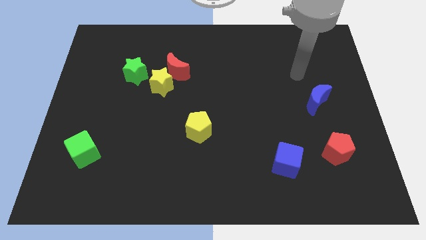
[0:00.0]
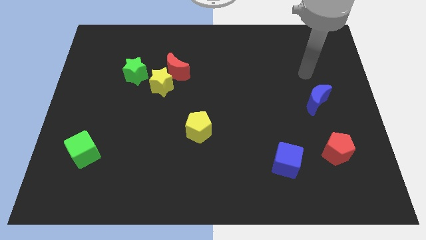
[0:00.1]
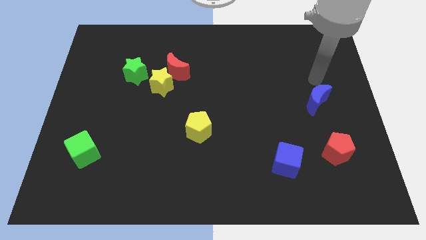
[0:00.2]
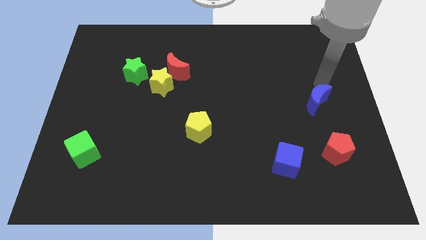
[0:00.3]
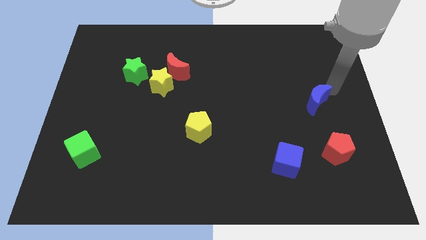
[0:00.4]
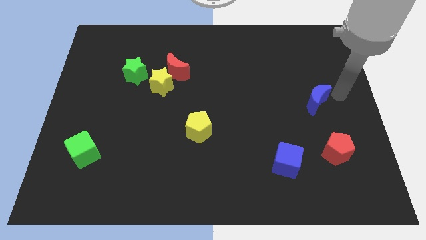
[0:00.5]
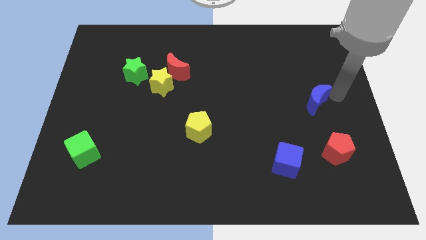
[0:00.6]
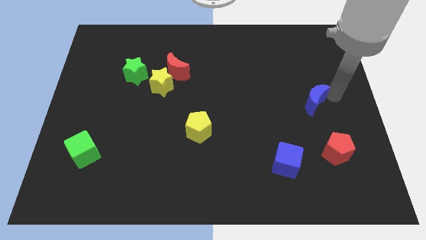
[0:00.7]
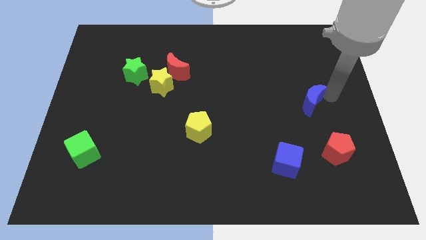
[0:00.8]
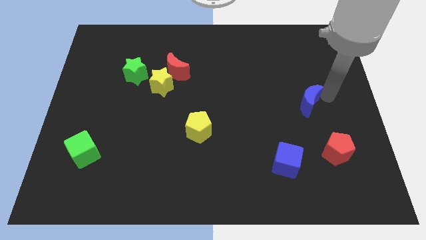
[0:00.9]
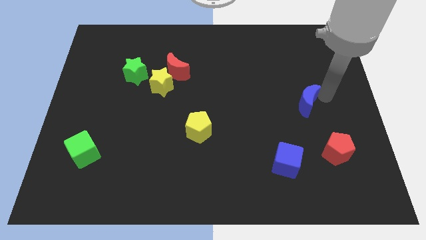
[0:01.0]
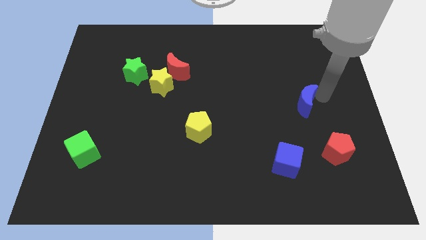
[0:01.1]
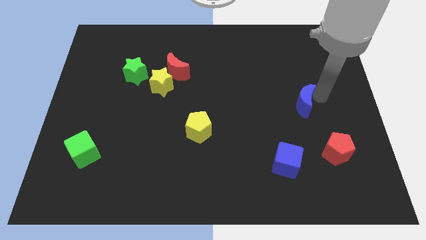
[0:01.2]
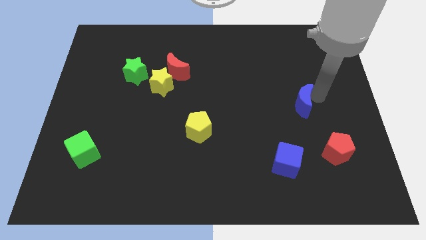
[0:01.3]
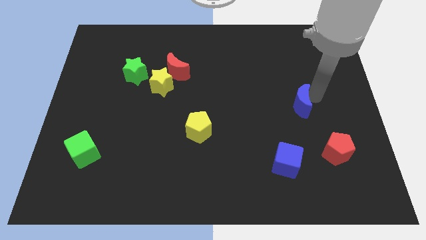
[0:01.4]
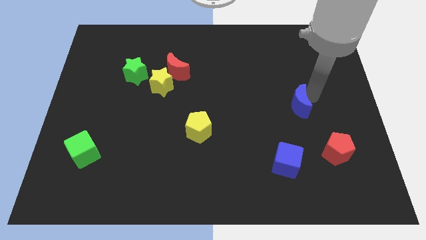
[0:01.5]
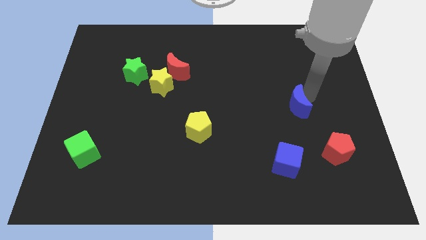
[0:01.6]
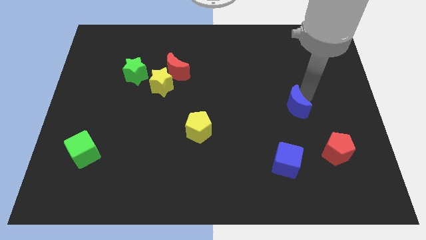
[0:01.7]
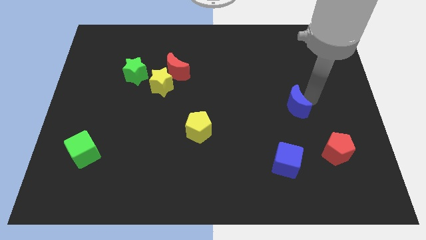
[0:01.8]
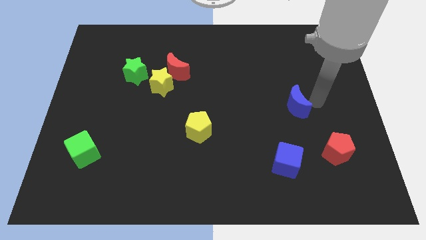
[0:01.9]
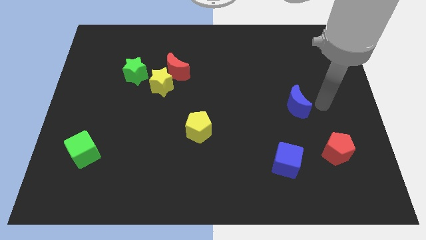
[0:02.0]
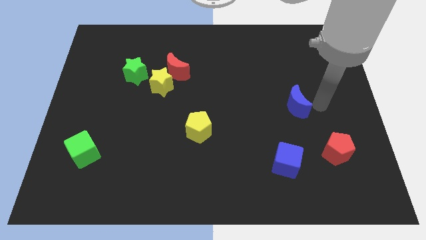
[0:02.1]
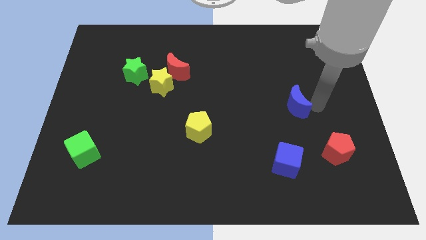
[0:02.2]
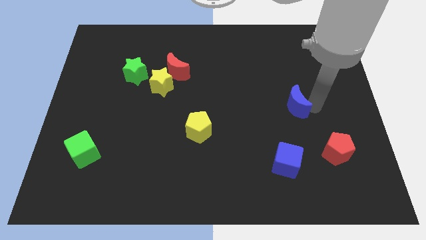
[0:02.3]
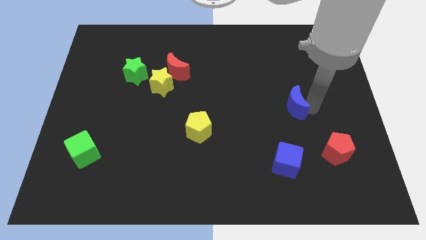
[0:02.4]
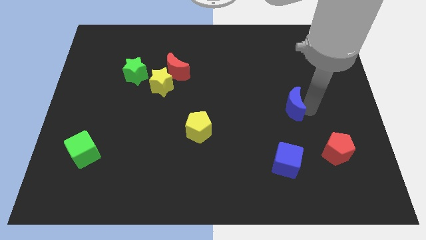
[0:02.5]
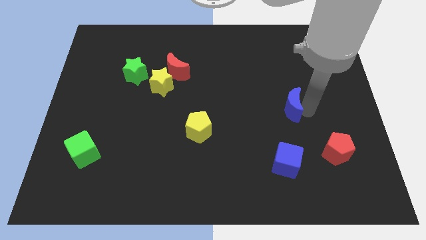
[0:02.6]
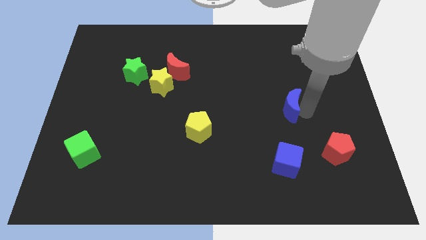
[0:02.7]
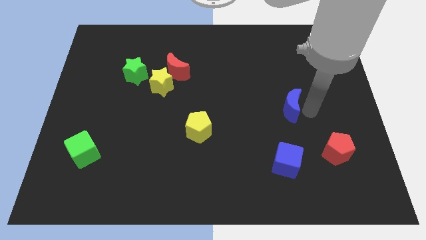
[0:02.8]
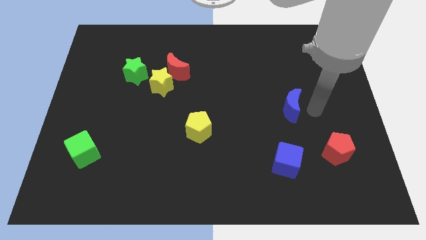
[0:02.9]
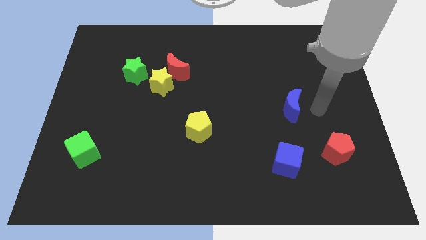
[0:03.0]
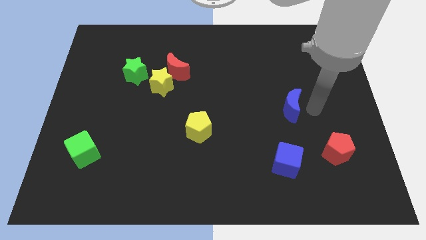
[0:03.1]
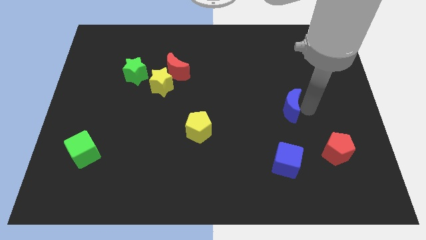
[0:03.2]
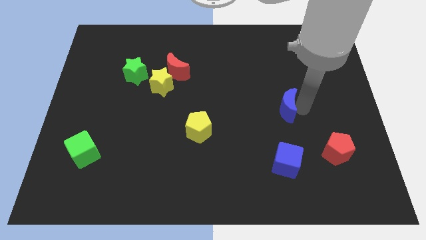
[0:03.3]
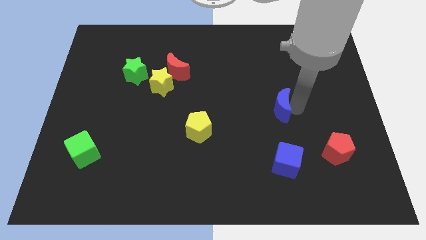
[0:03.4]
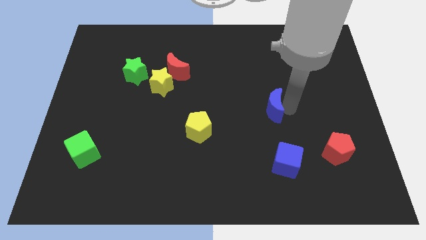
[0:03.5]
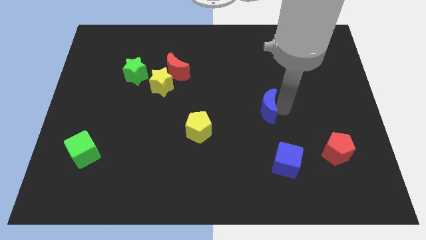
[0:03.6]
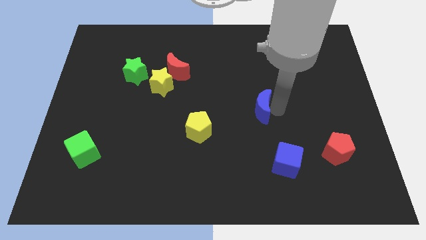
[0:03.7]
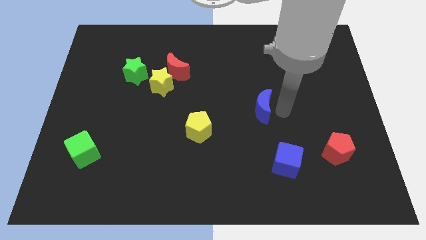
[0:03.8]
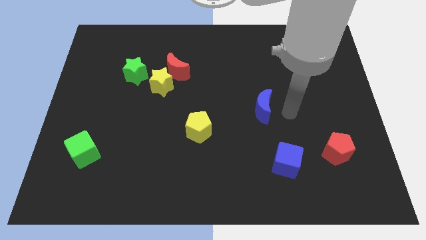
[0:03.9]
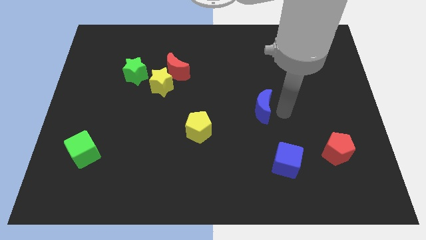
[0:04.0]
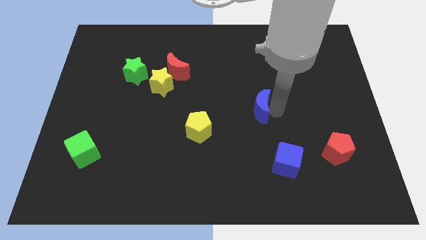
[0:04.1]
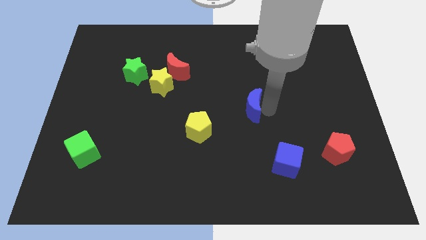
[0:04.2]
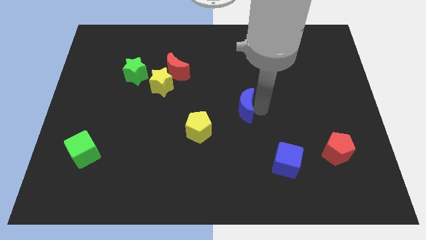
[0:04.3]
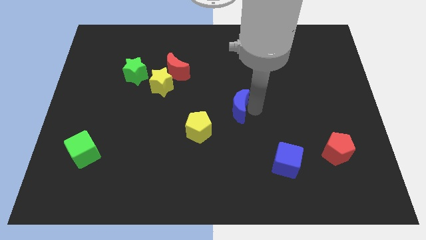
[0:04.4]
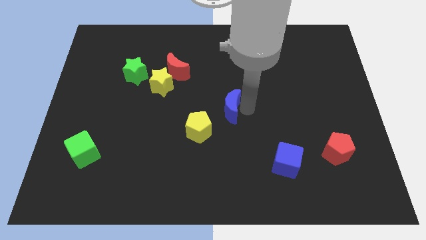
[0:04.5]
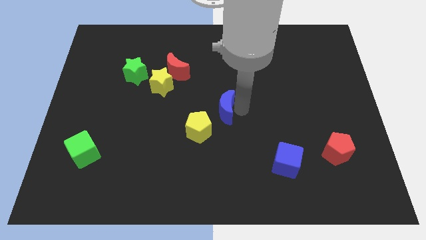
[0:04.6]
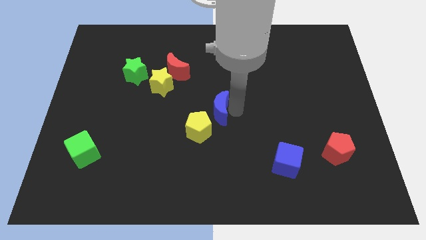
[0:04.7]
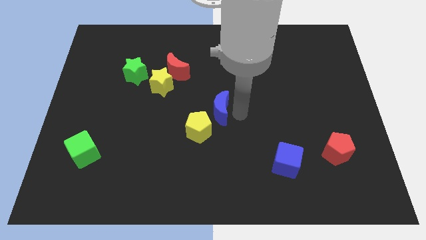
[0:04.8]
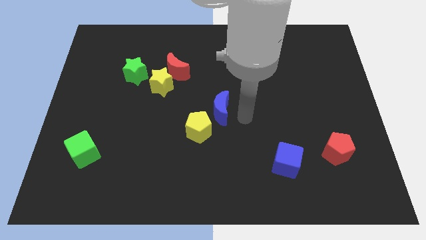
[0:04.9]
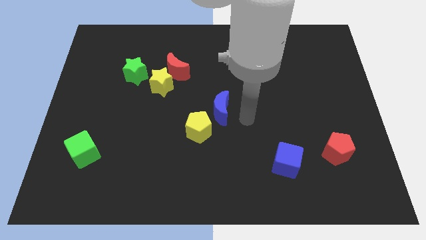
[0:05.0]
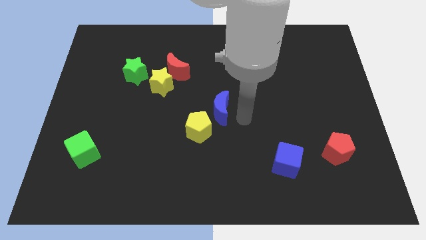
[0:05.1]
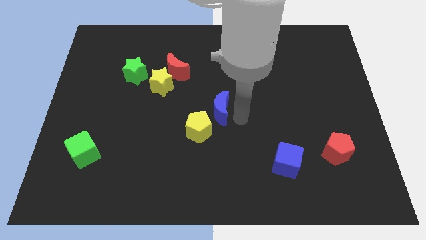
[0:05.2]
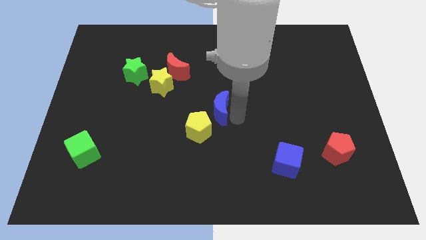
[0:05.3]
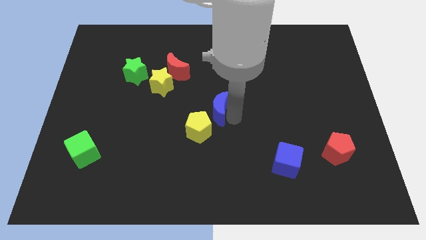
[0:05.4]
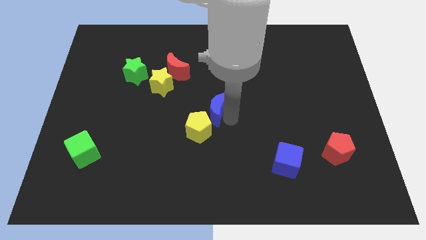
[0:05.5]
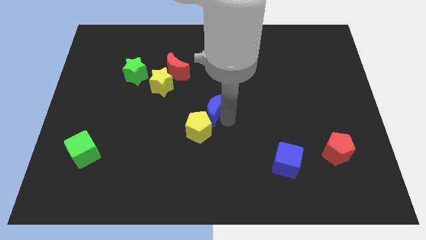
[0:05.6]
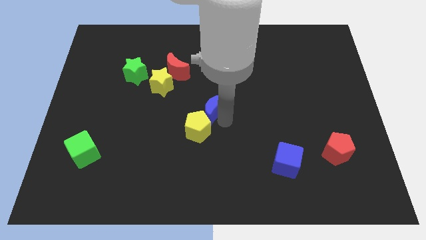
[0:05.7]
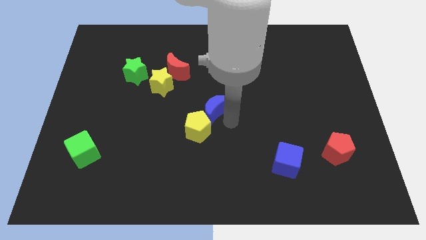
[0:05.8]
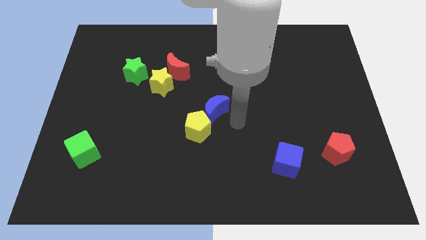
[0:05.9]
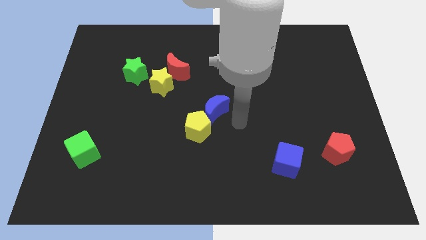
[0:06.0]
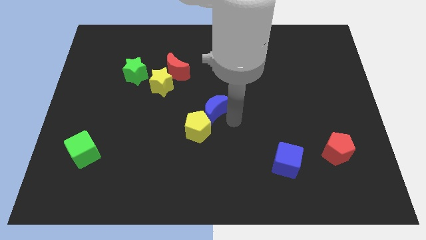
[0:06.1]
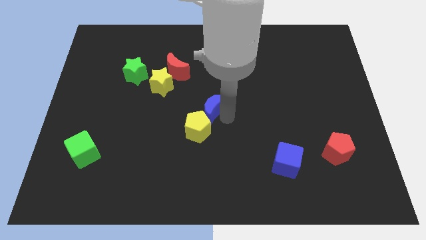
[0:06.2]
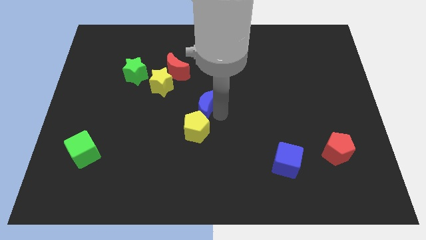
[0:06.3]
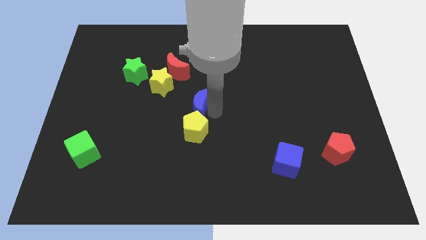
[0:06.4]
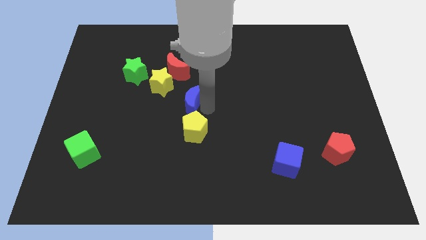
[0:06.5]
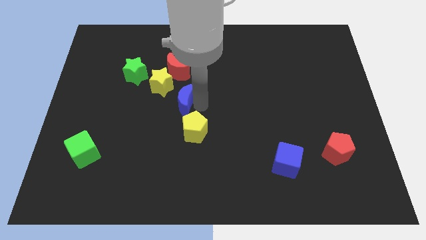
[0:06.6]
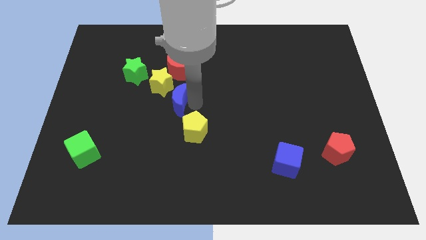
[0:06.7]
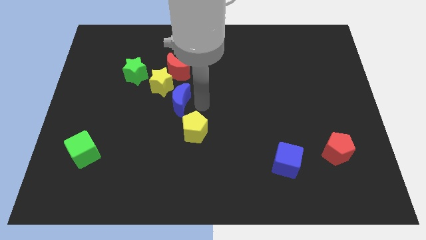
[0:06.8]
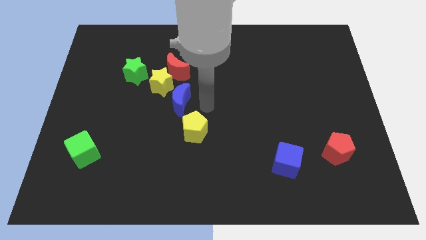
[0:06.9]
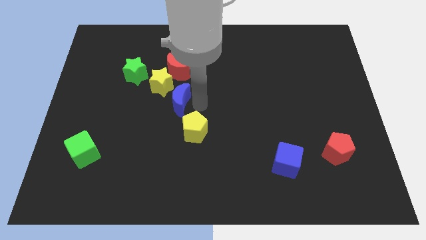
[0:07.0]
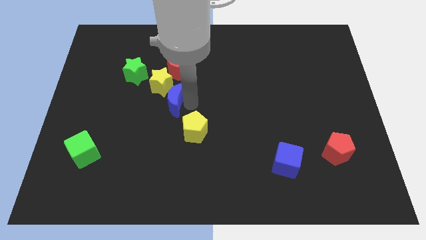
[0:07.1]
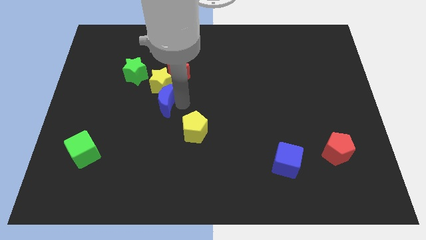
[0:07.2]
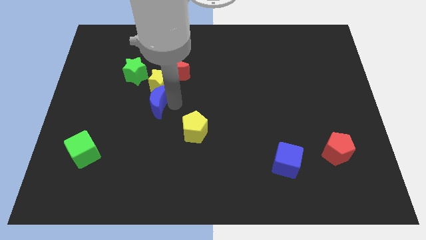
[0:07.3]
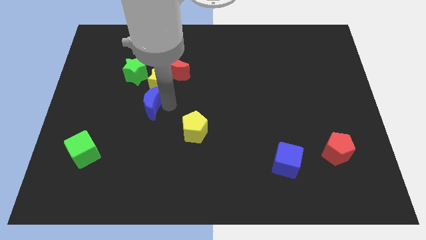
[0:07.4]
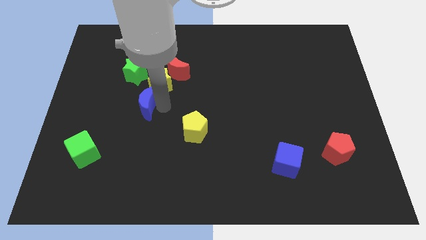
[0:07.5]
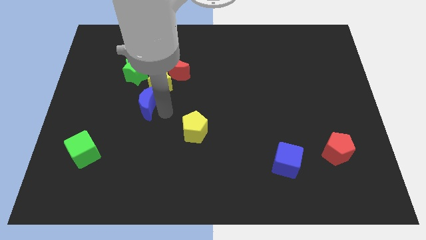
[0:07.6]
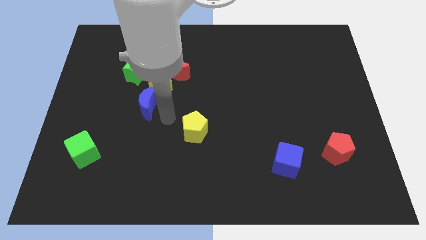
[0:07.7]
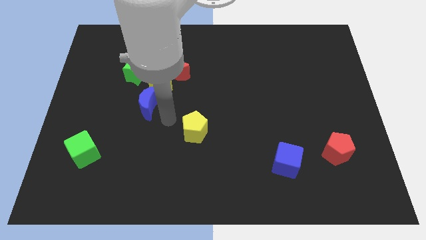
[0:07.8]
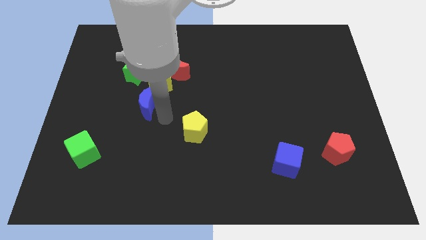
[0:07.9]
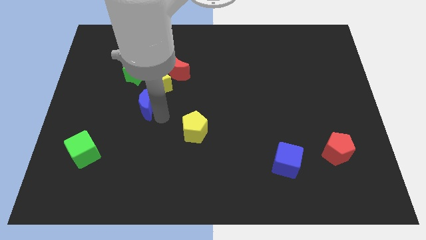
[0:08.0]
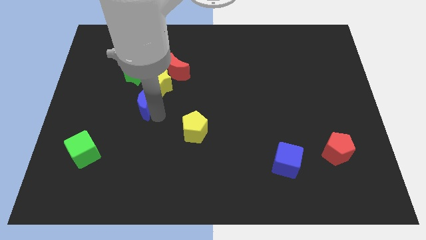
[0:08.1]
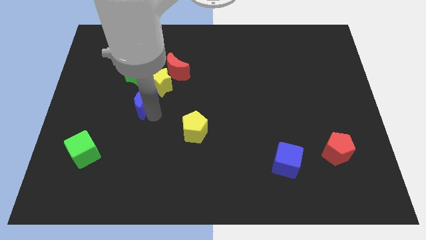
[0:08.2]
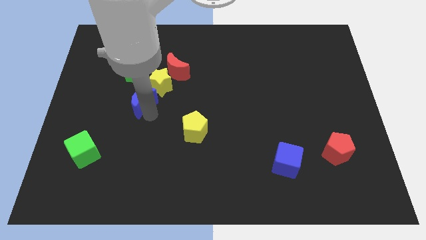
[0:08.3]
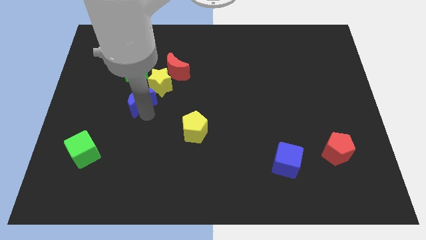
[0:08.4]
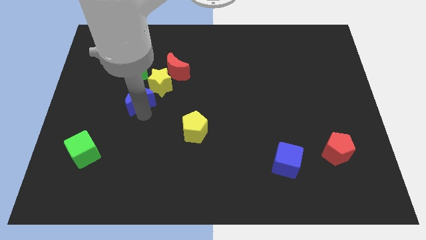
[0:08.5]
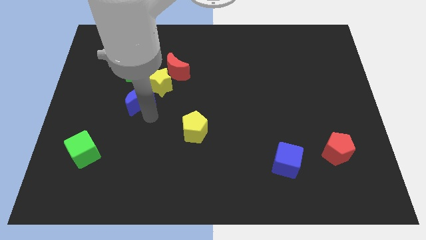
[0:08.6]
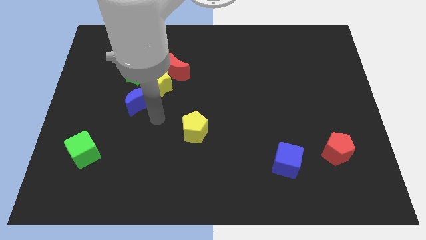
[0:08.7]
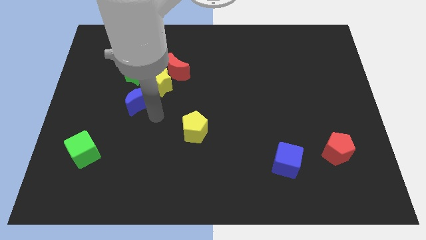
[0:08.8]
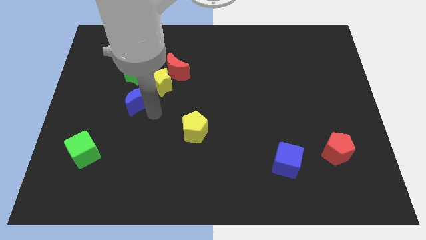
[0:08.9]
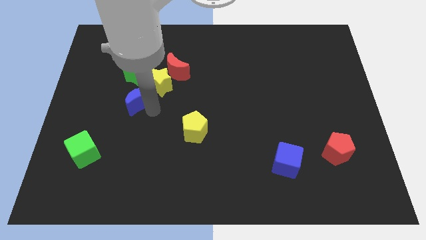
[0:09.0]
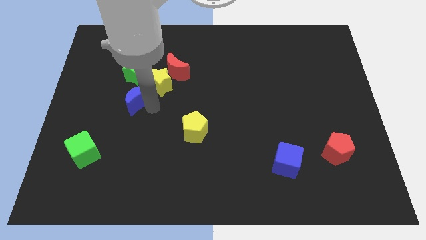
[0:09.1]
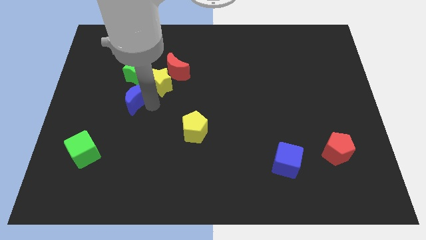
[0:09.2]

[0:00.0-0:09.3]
move the blue moon left of the yellow star
